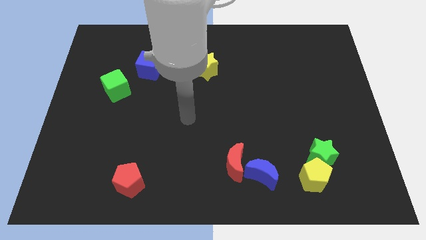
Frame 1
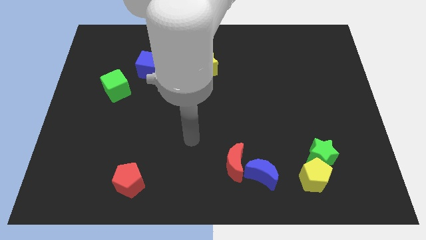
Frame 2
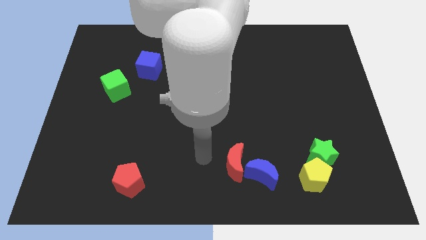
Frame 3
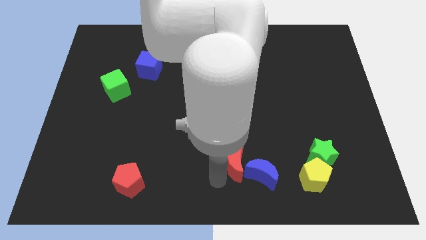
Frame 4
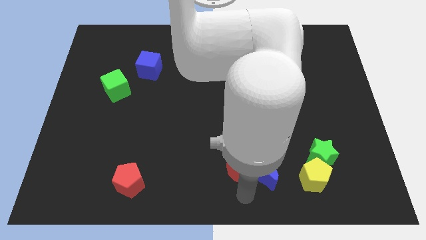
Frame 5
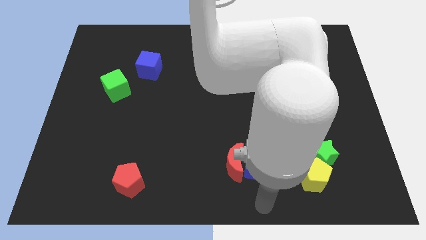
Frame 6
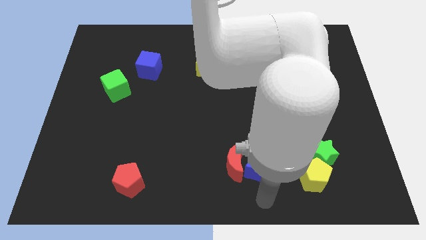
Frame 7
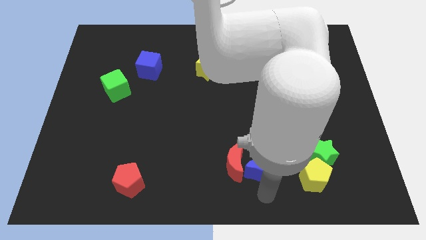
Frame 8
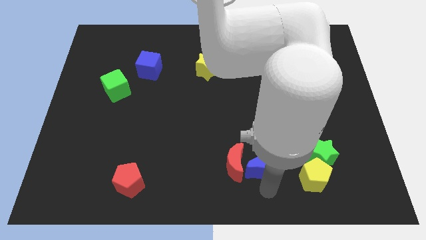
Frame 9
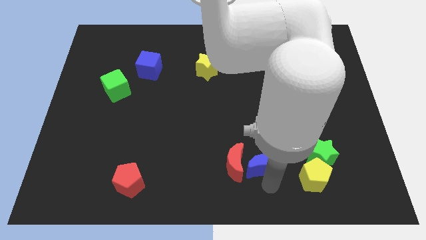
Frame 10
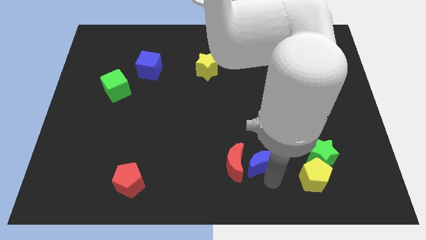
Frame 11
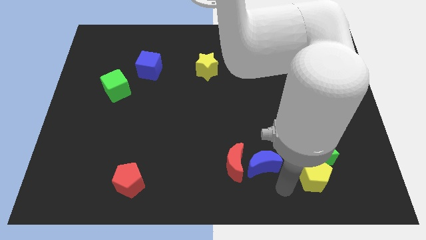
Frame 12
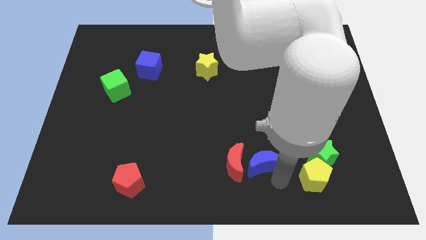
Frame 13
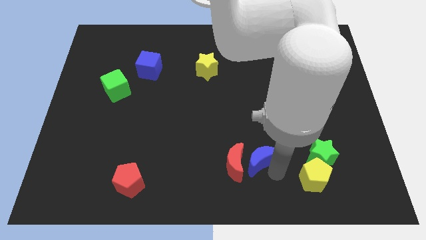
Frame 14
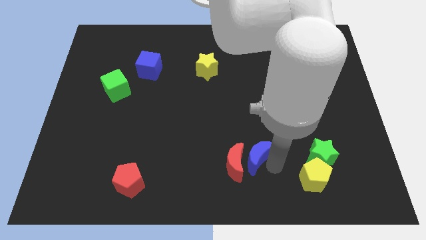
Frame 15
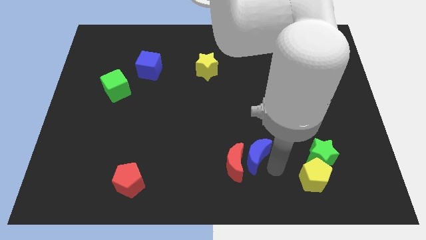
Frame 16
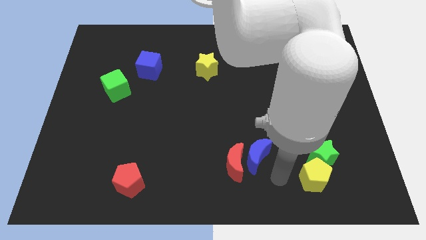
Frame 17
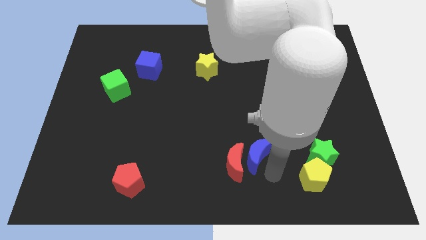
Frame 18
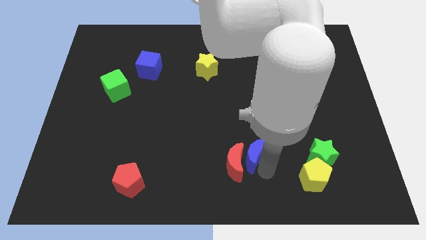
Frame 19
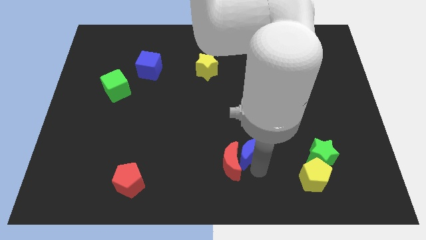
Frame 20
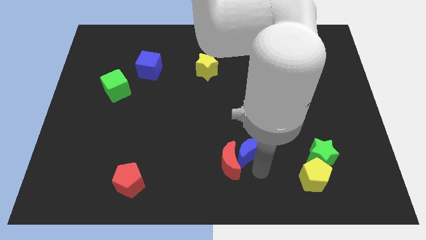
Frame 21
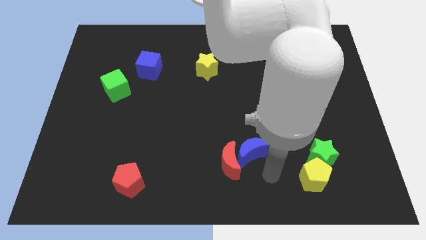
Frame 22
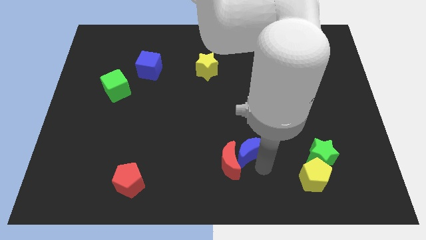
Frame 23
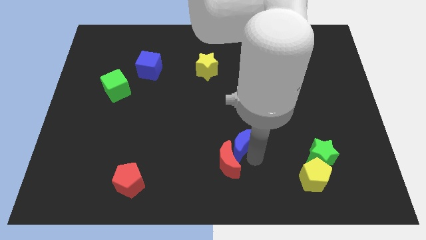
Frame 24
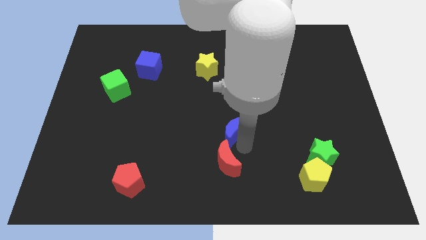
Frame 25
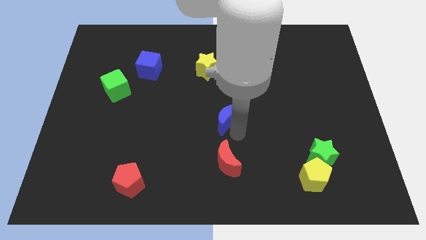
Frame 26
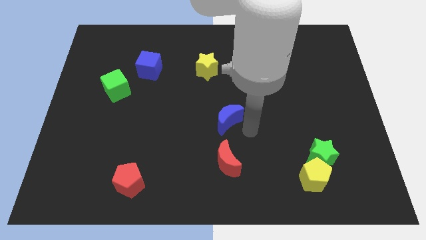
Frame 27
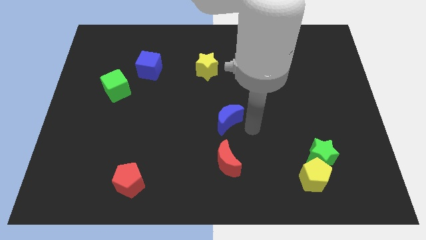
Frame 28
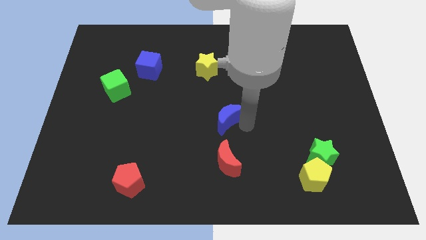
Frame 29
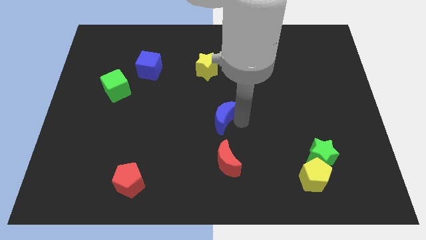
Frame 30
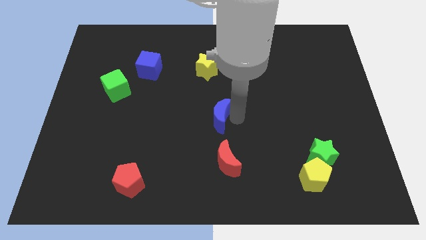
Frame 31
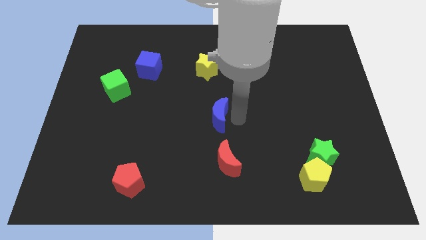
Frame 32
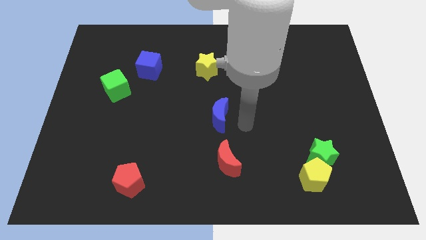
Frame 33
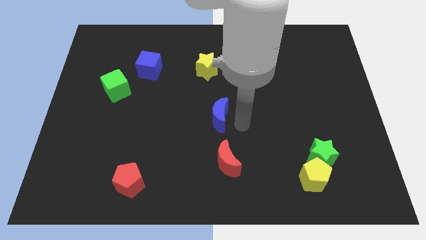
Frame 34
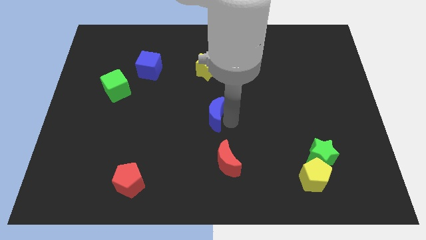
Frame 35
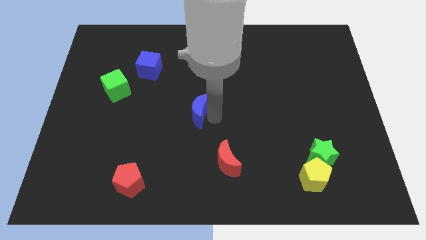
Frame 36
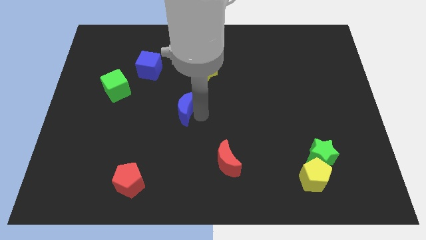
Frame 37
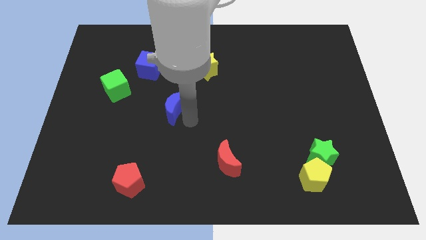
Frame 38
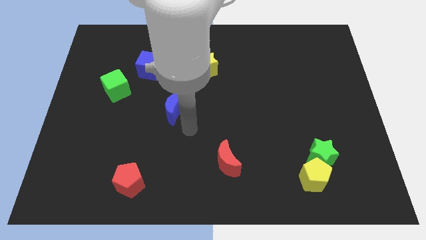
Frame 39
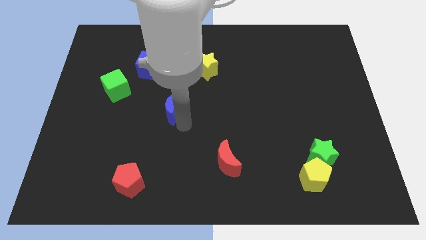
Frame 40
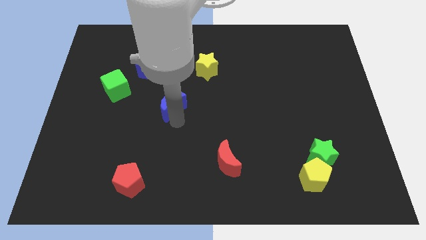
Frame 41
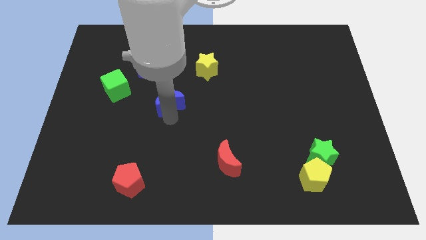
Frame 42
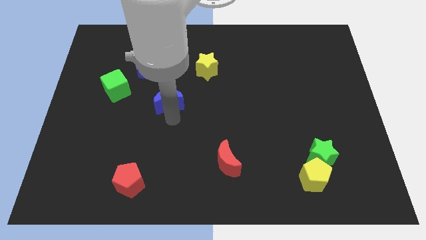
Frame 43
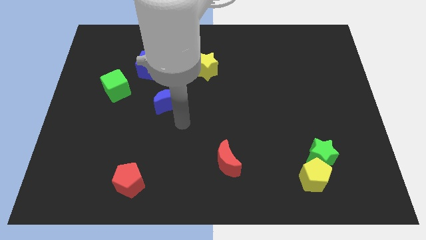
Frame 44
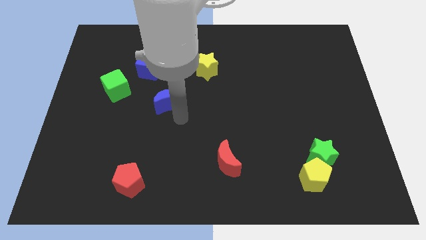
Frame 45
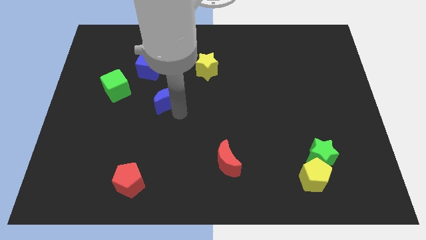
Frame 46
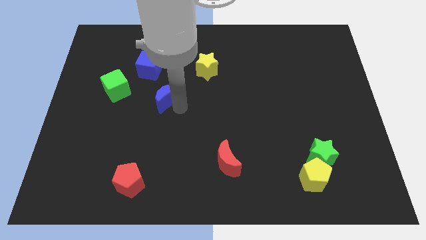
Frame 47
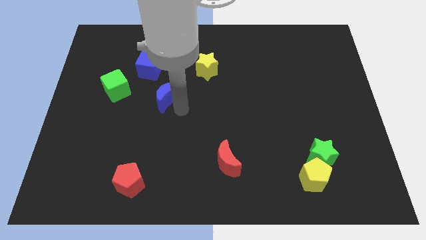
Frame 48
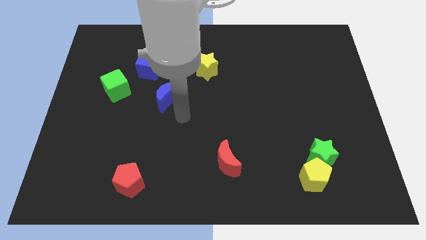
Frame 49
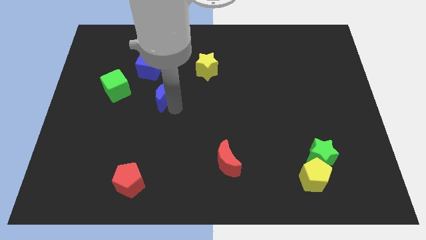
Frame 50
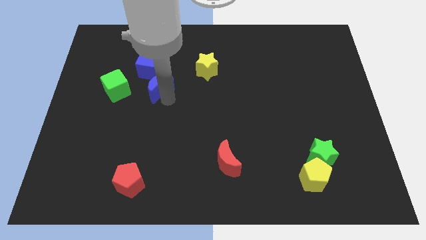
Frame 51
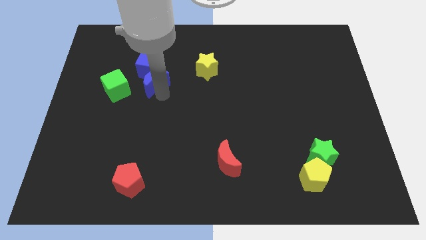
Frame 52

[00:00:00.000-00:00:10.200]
push the blue moon towards the blue cube

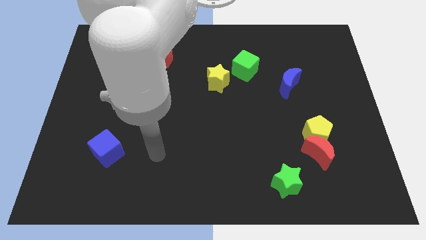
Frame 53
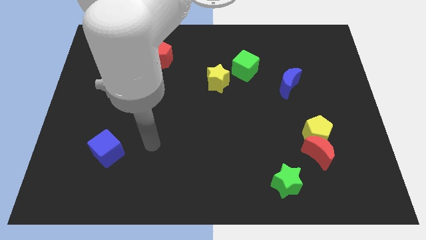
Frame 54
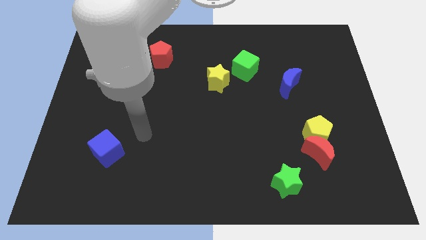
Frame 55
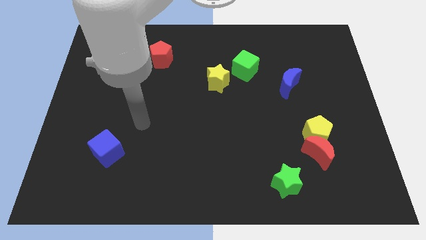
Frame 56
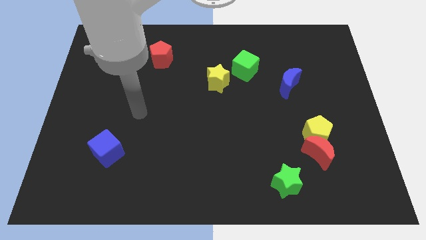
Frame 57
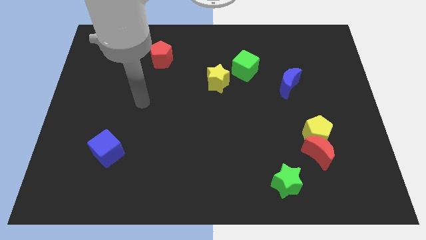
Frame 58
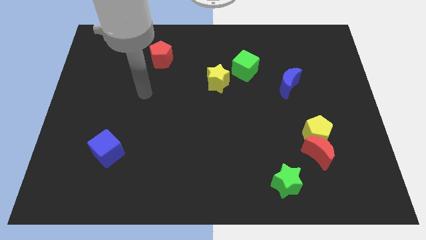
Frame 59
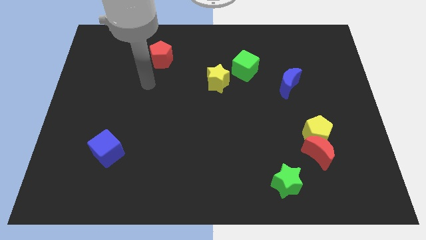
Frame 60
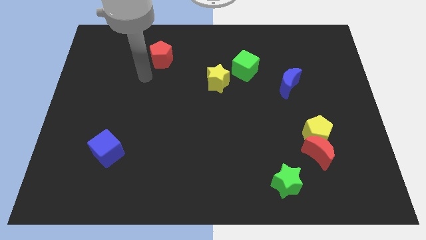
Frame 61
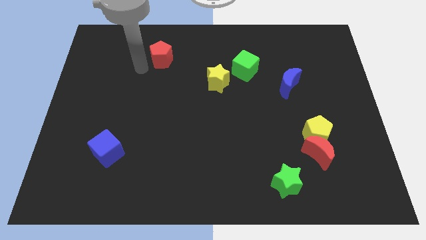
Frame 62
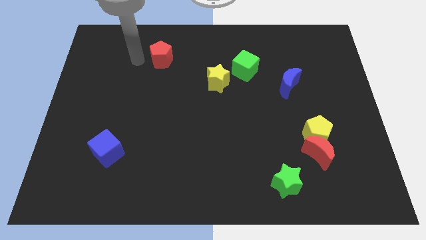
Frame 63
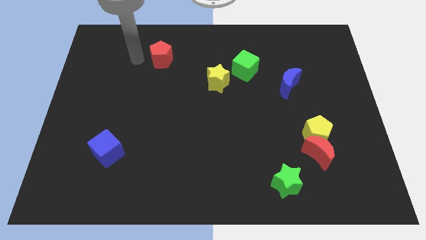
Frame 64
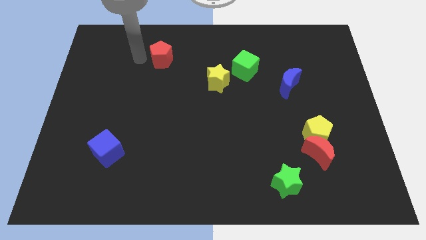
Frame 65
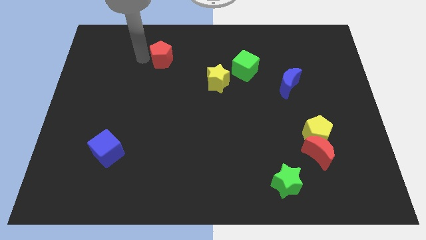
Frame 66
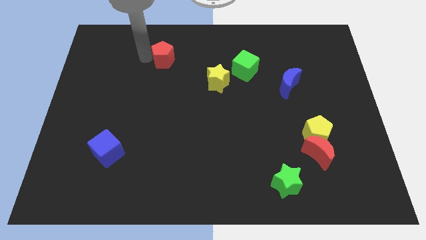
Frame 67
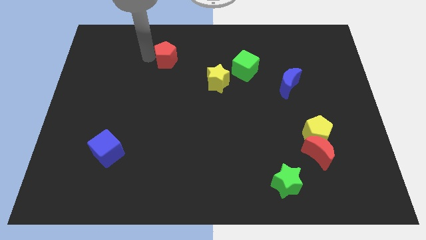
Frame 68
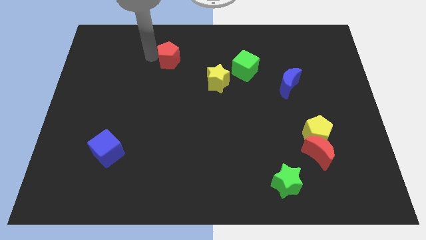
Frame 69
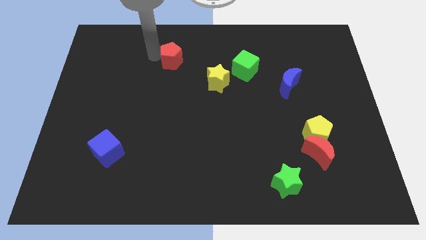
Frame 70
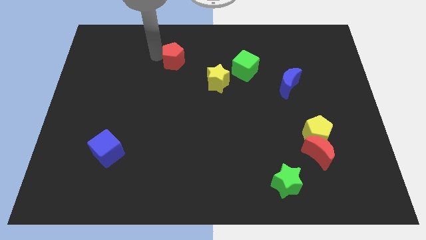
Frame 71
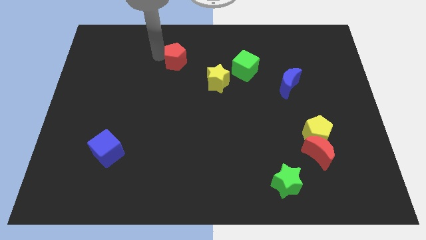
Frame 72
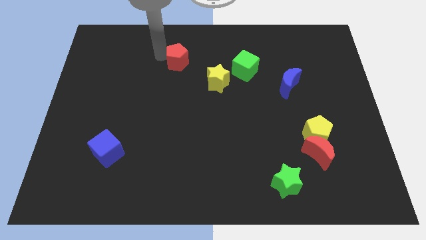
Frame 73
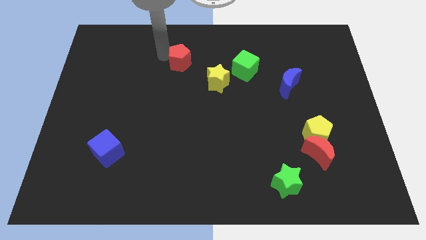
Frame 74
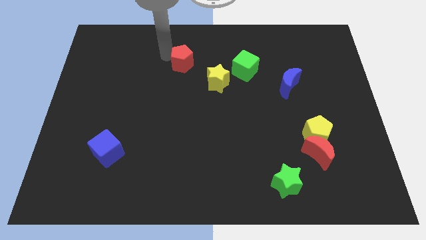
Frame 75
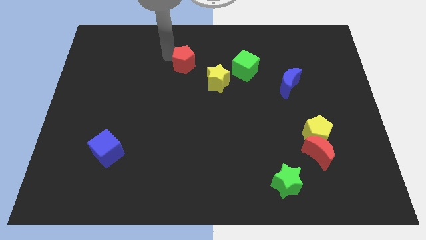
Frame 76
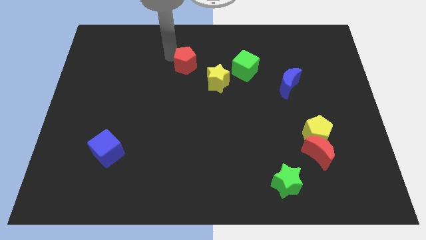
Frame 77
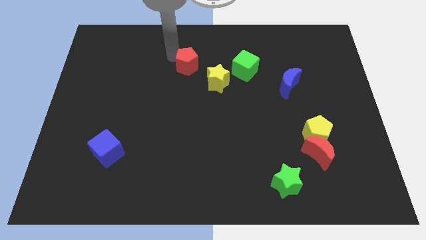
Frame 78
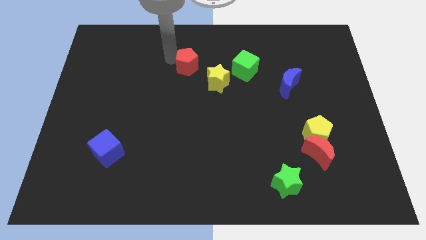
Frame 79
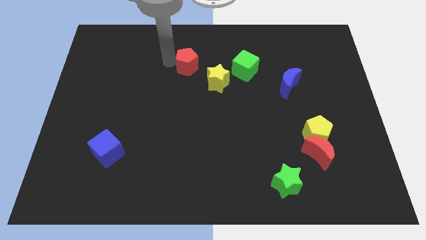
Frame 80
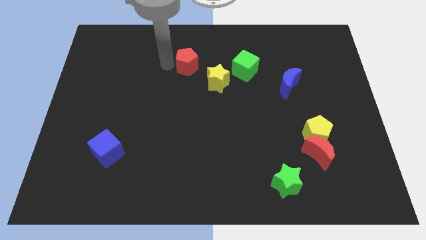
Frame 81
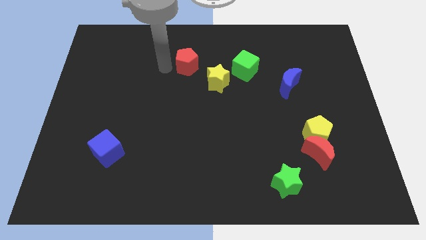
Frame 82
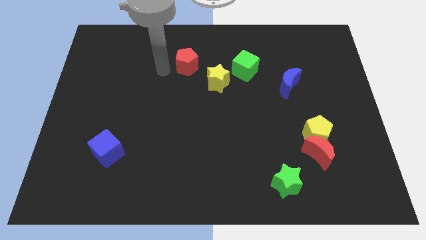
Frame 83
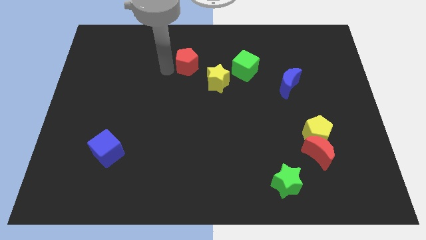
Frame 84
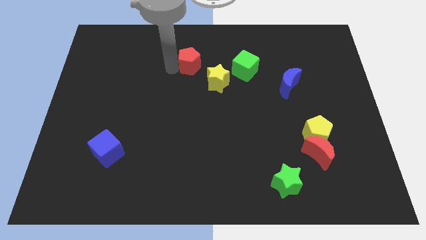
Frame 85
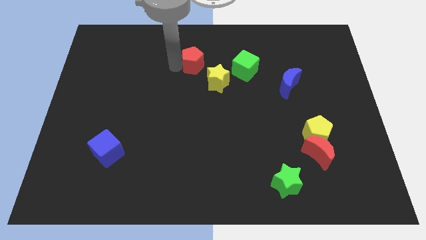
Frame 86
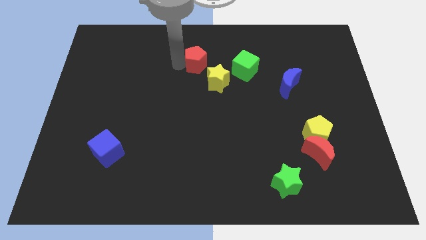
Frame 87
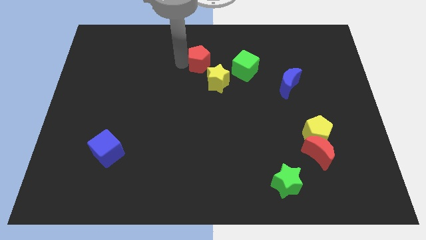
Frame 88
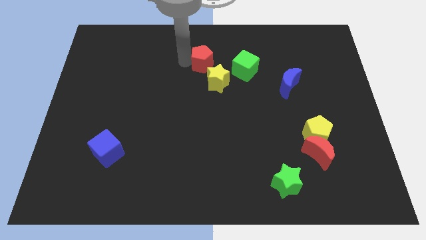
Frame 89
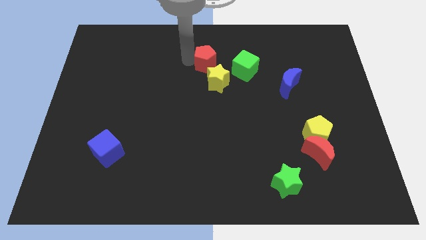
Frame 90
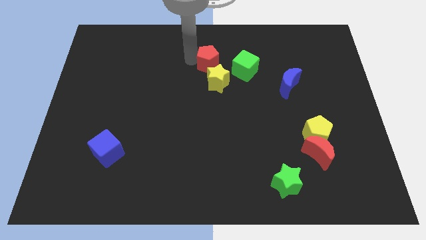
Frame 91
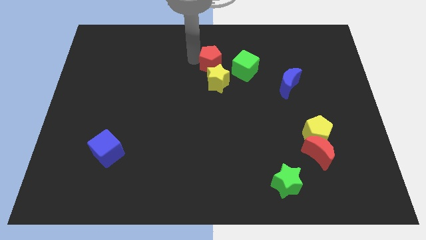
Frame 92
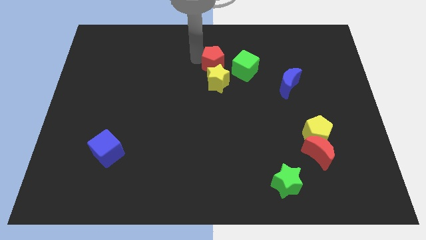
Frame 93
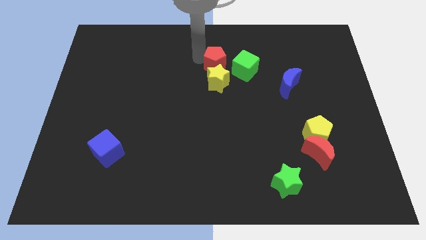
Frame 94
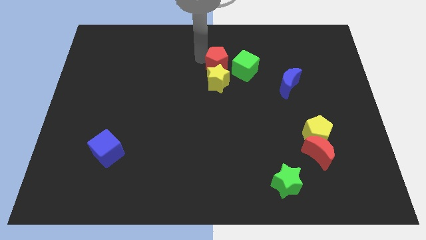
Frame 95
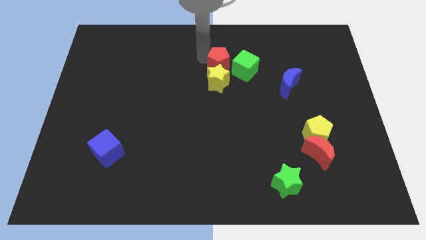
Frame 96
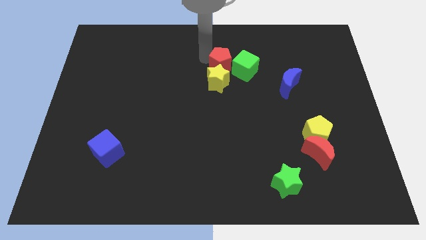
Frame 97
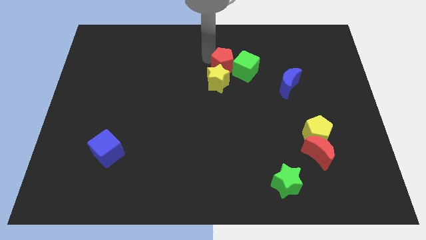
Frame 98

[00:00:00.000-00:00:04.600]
slide the red pentagon to the green cube
